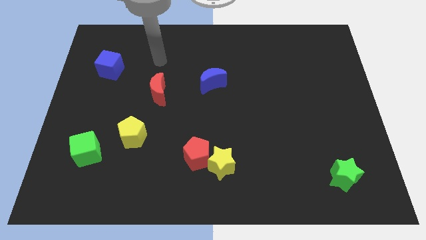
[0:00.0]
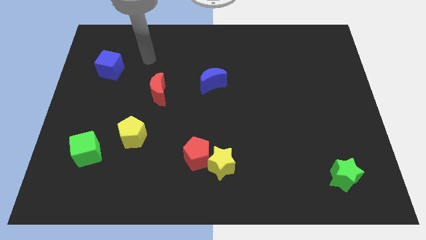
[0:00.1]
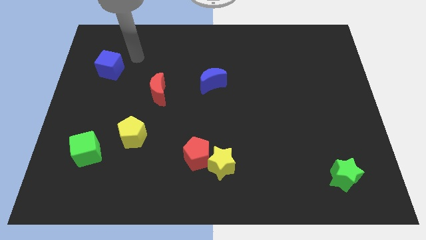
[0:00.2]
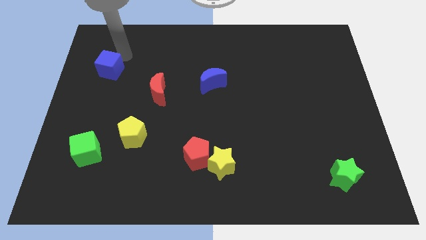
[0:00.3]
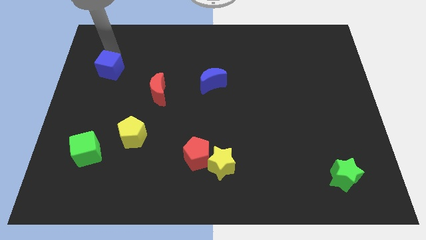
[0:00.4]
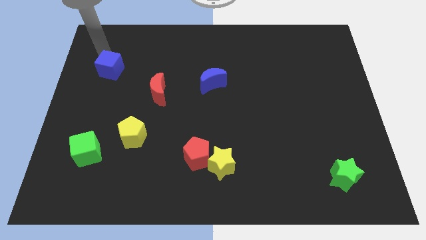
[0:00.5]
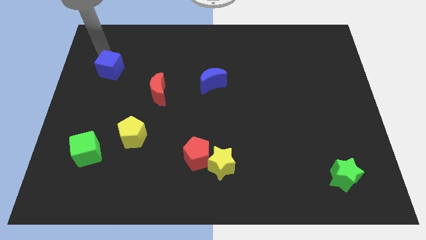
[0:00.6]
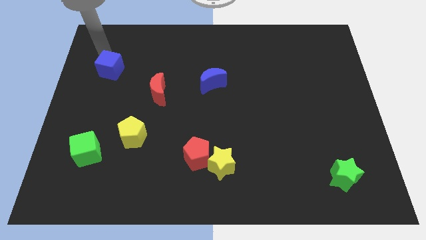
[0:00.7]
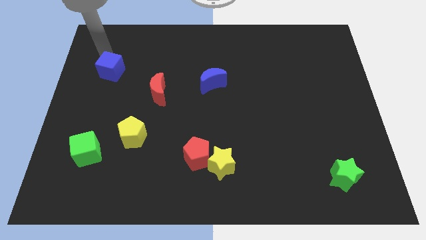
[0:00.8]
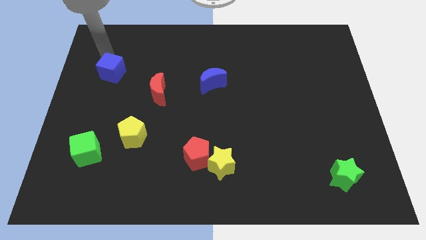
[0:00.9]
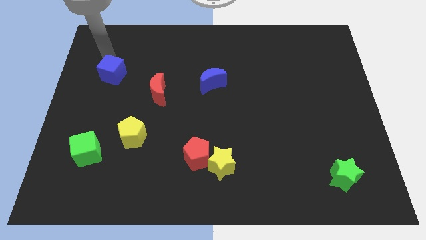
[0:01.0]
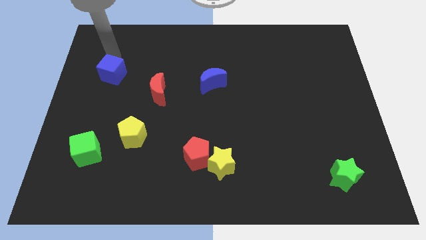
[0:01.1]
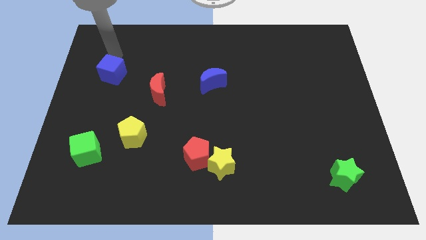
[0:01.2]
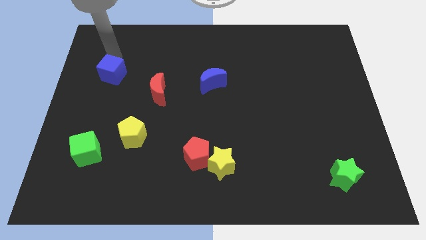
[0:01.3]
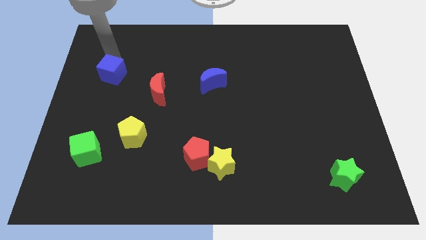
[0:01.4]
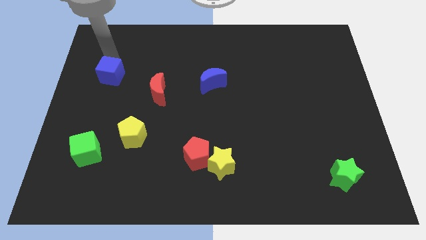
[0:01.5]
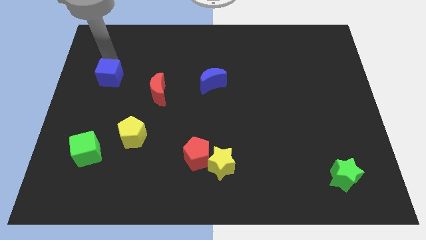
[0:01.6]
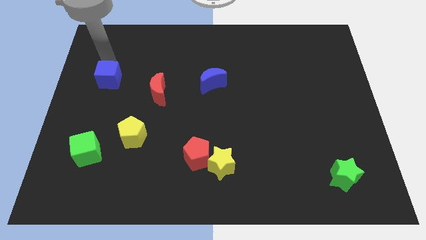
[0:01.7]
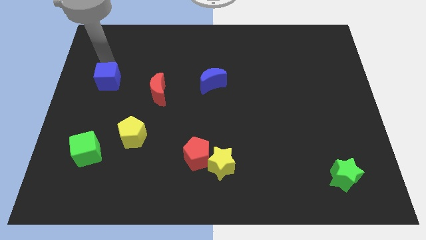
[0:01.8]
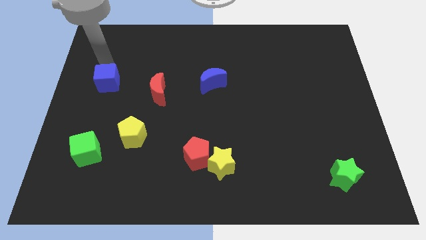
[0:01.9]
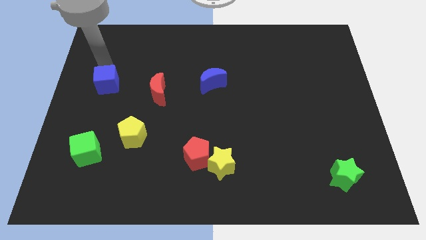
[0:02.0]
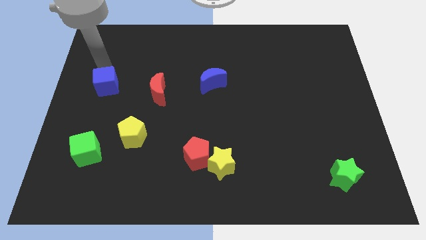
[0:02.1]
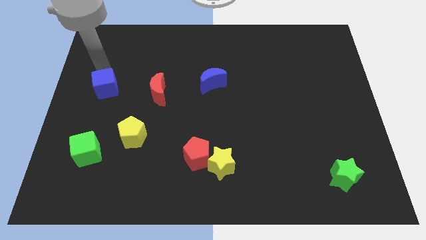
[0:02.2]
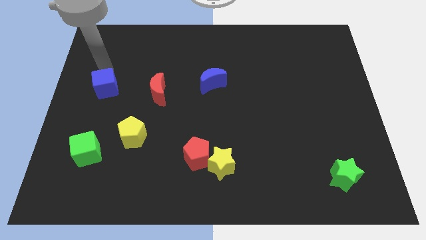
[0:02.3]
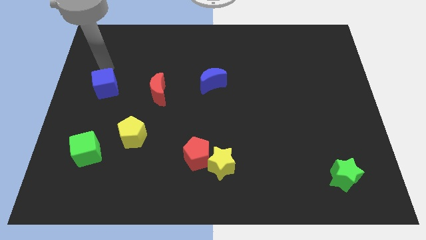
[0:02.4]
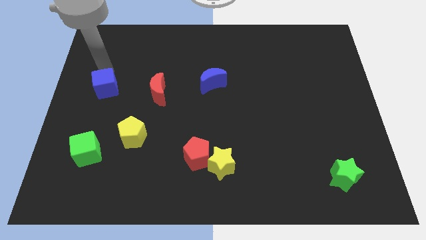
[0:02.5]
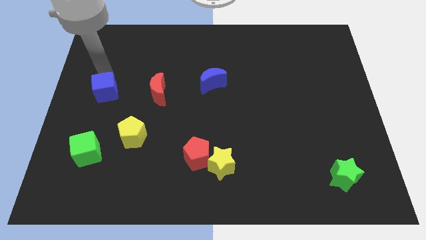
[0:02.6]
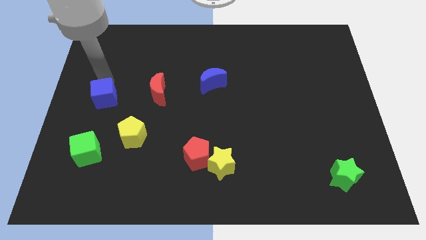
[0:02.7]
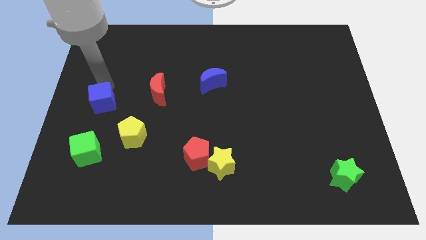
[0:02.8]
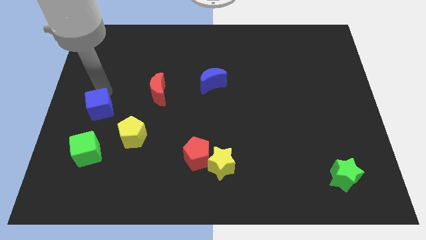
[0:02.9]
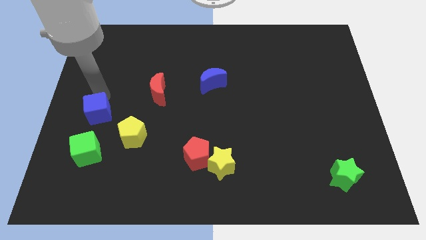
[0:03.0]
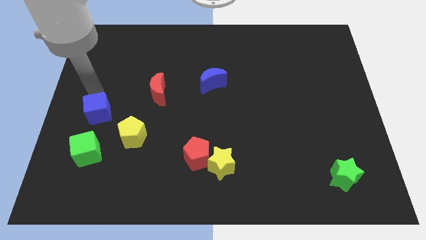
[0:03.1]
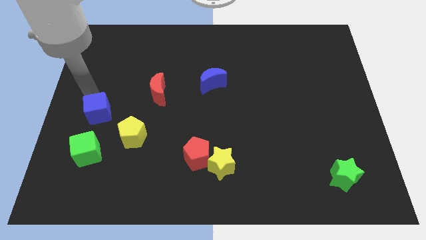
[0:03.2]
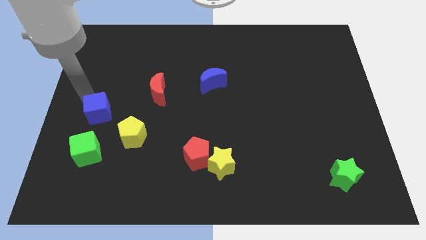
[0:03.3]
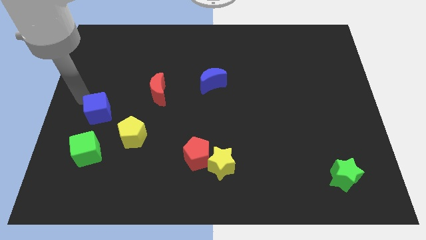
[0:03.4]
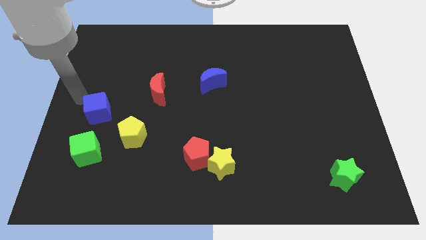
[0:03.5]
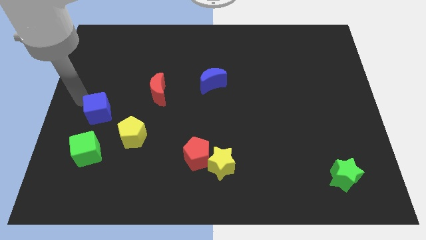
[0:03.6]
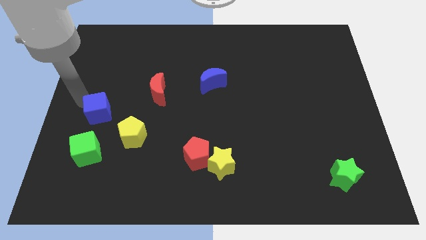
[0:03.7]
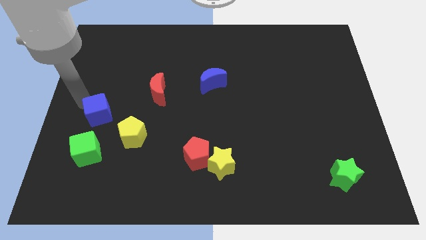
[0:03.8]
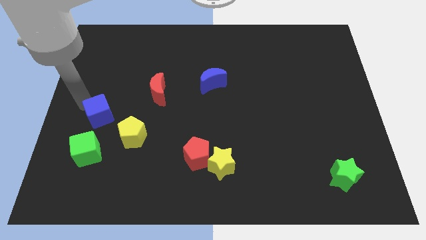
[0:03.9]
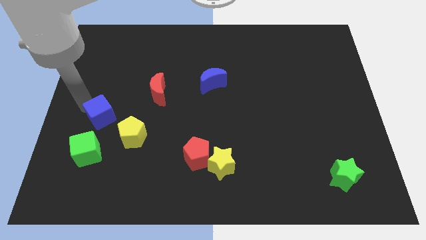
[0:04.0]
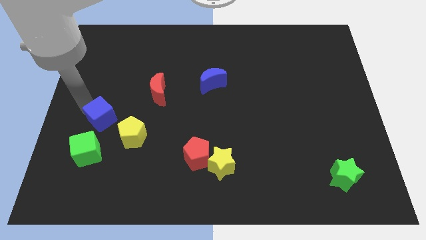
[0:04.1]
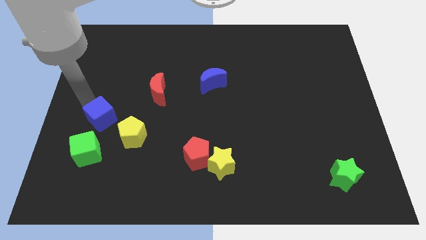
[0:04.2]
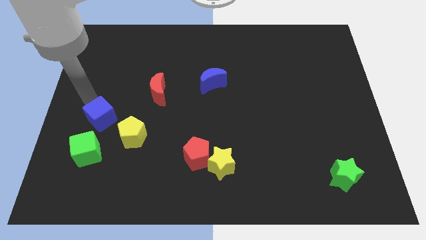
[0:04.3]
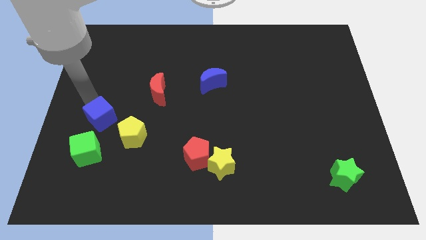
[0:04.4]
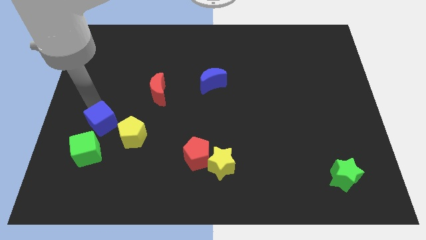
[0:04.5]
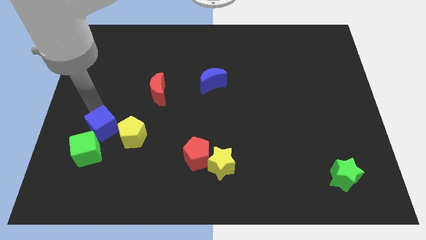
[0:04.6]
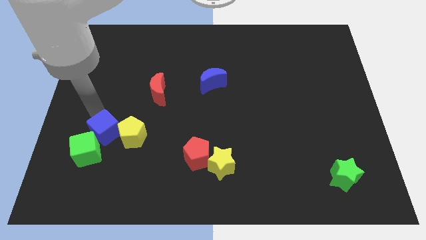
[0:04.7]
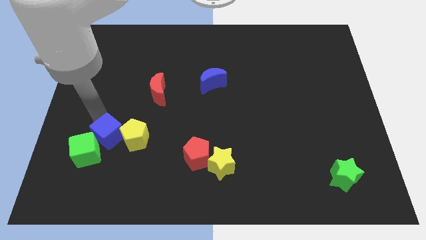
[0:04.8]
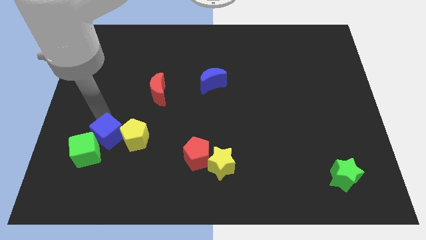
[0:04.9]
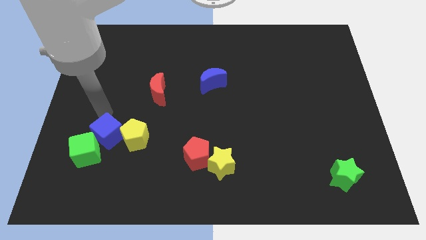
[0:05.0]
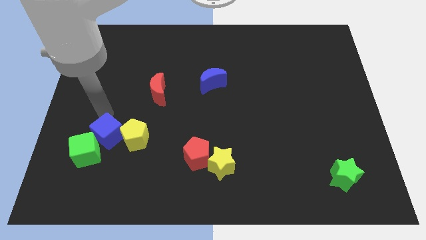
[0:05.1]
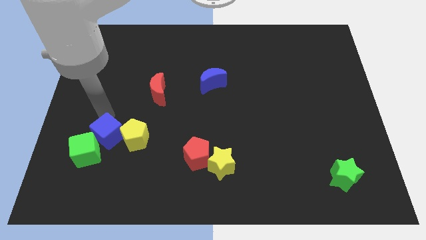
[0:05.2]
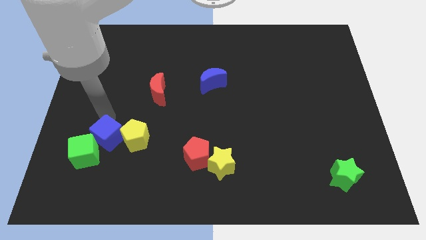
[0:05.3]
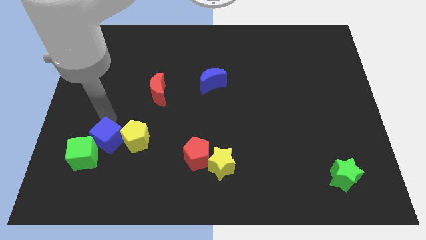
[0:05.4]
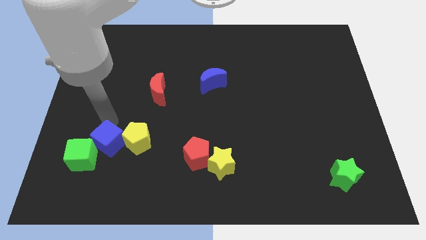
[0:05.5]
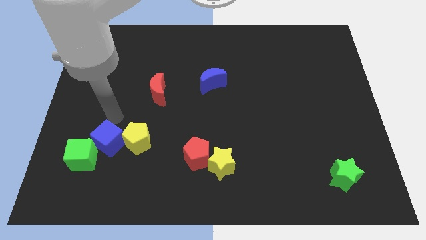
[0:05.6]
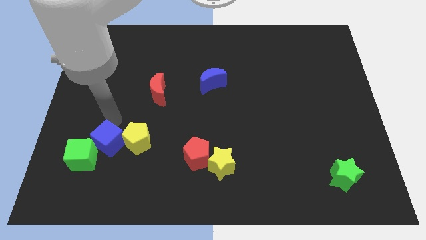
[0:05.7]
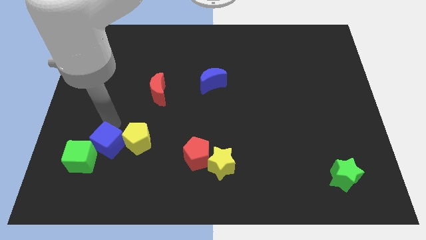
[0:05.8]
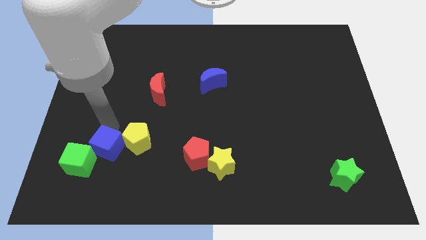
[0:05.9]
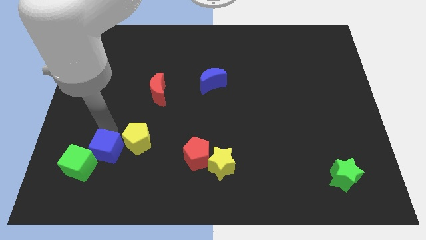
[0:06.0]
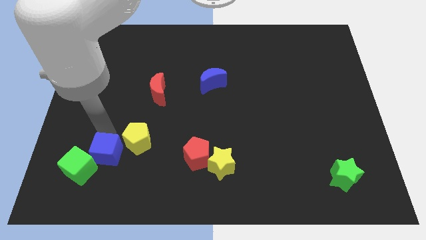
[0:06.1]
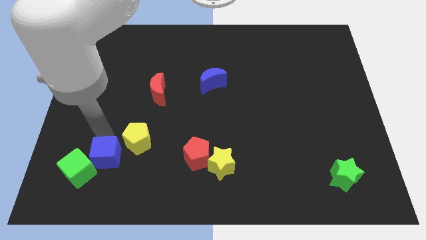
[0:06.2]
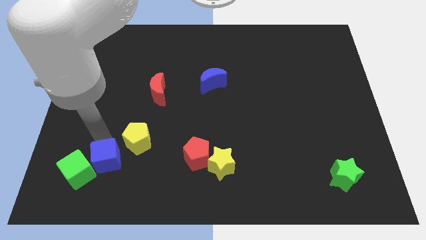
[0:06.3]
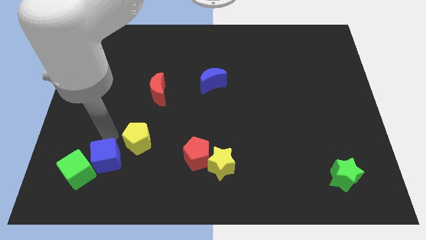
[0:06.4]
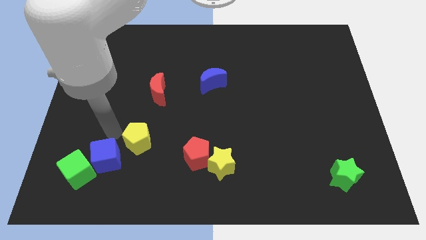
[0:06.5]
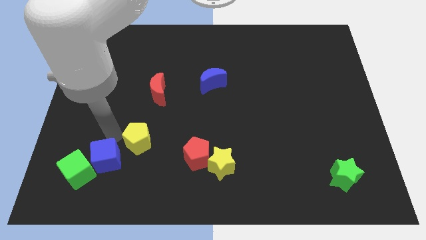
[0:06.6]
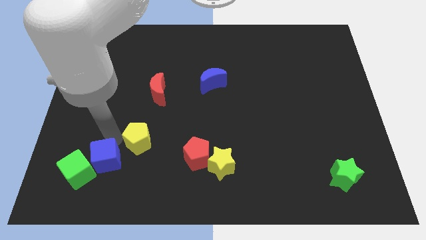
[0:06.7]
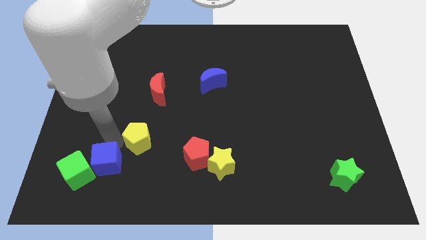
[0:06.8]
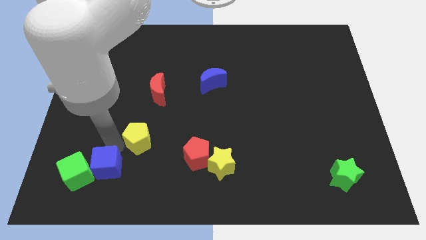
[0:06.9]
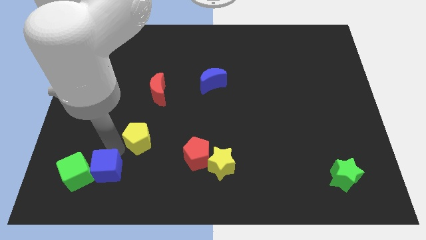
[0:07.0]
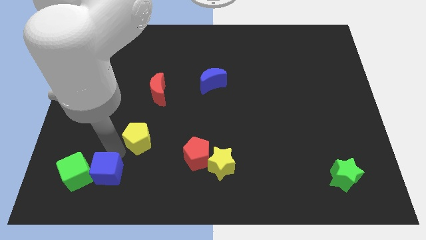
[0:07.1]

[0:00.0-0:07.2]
slide the blue cube to the bottom right side of the green cube

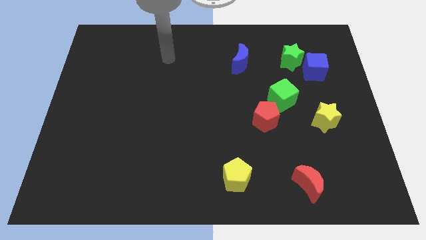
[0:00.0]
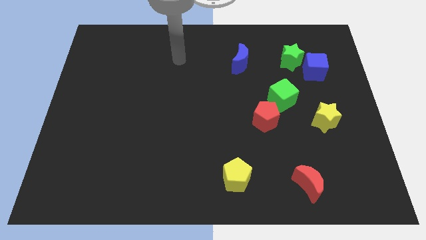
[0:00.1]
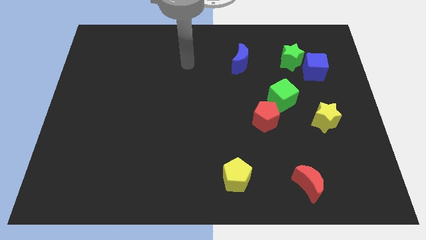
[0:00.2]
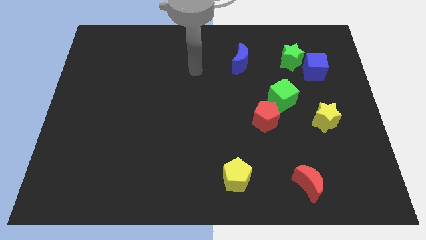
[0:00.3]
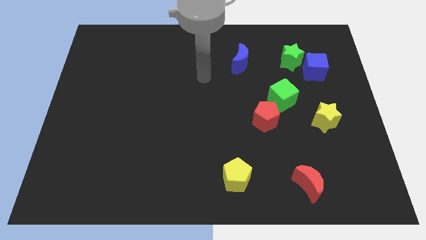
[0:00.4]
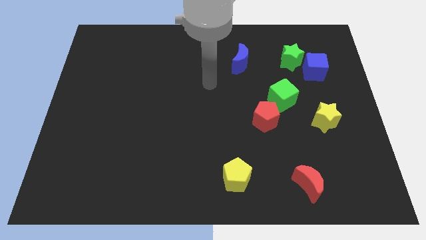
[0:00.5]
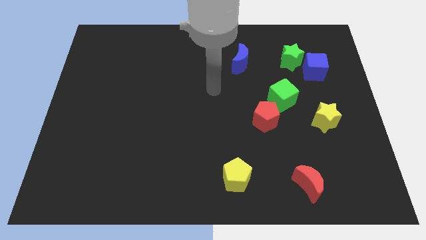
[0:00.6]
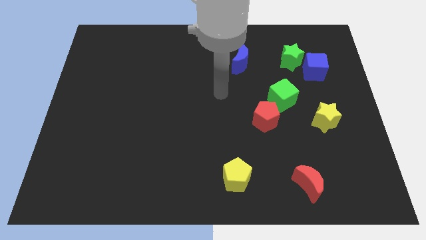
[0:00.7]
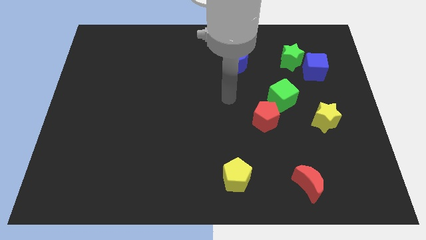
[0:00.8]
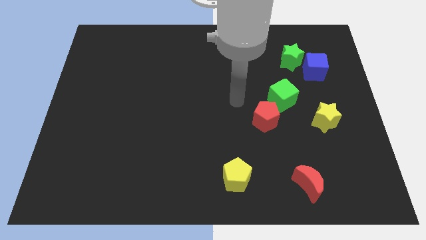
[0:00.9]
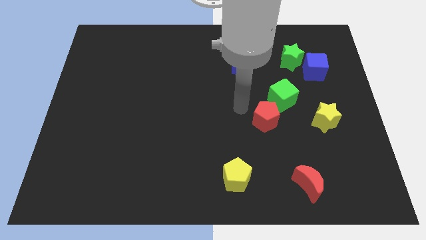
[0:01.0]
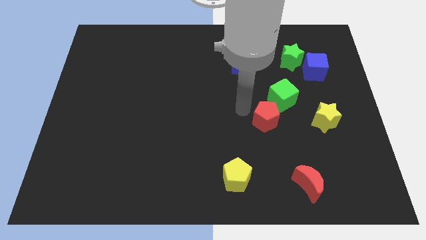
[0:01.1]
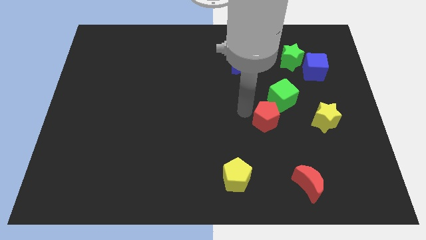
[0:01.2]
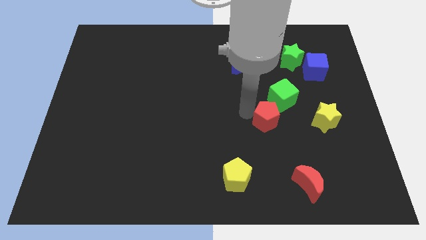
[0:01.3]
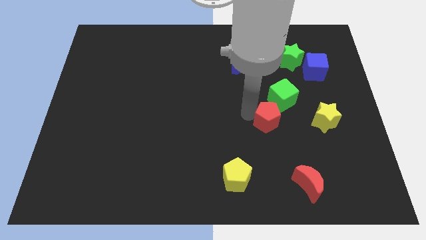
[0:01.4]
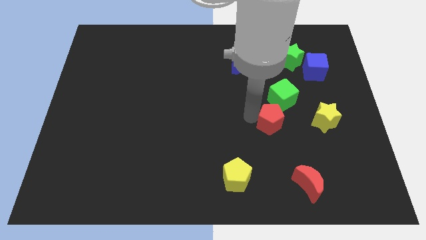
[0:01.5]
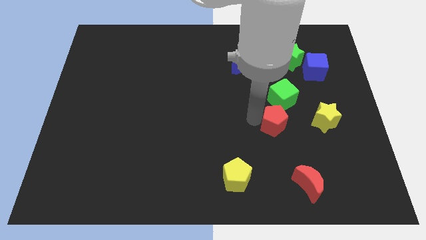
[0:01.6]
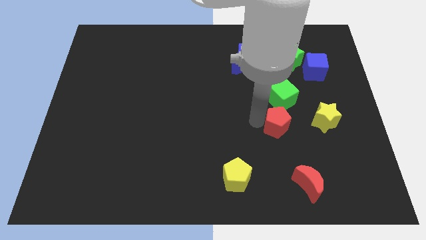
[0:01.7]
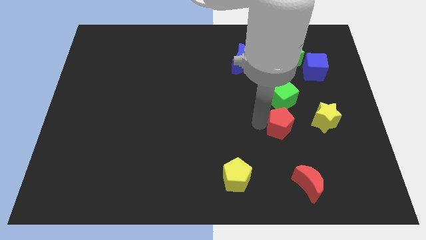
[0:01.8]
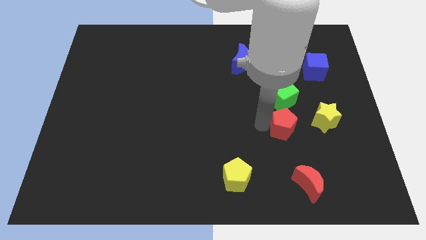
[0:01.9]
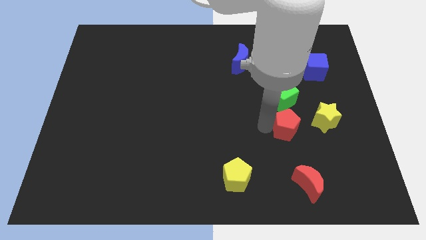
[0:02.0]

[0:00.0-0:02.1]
slide the red pentagon diagonally down and to the left of the yellow star
